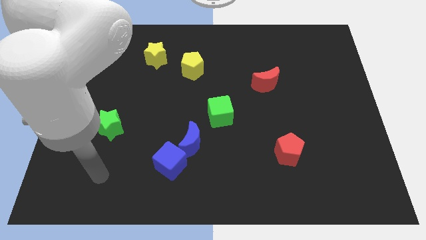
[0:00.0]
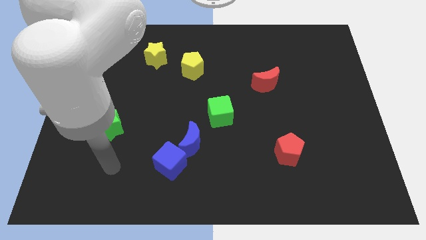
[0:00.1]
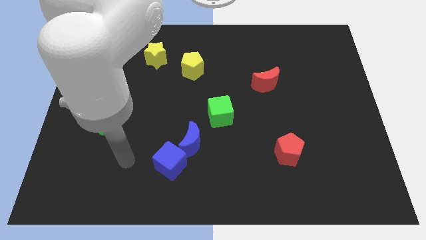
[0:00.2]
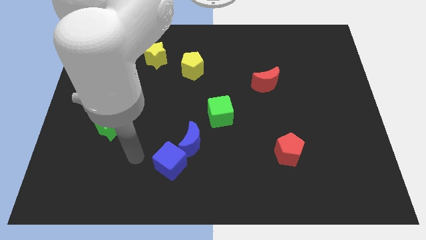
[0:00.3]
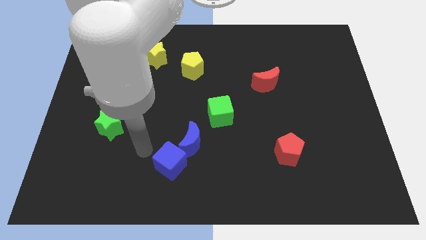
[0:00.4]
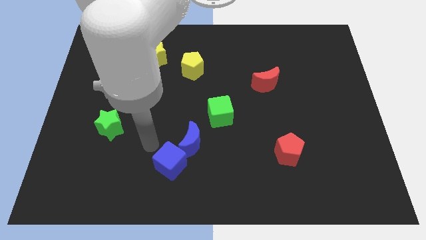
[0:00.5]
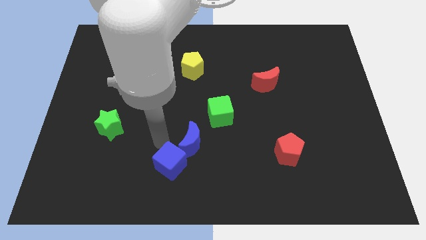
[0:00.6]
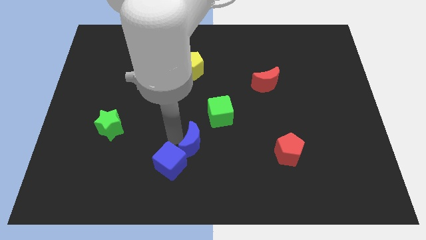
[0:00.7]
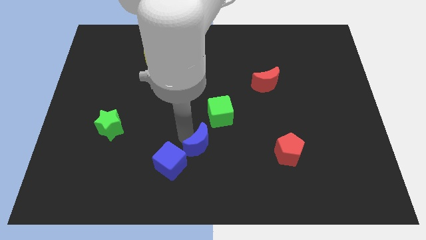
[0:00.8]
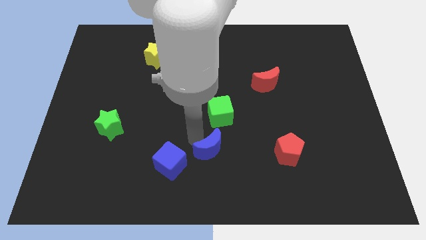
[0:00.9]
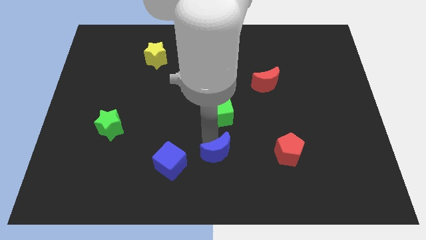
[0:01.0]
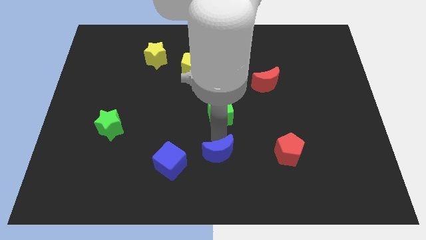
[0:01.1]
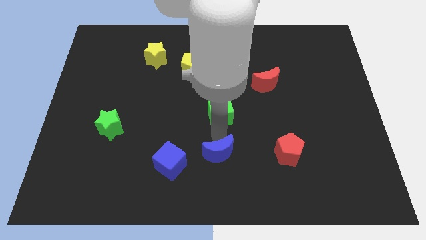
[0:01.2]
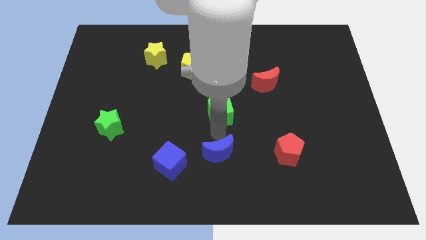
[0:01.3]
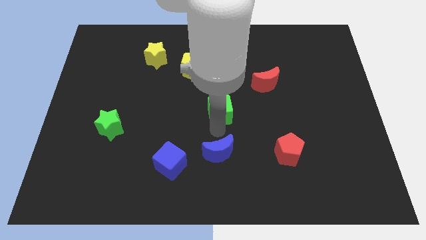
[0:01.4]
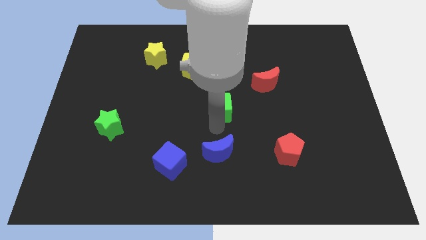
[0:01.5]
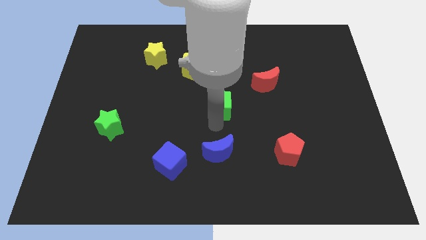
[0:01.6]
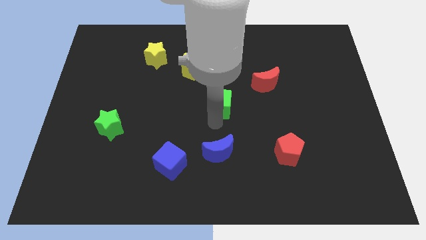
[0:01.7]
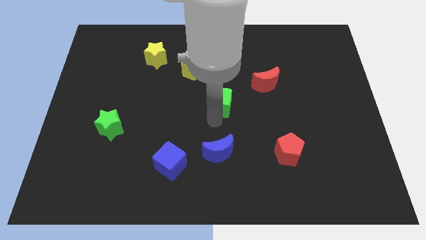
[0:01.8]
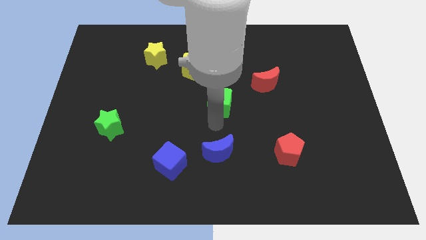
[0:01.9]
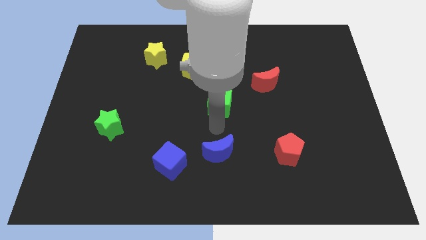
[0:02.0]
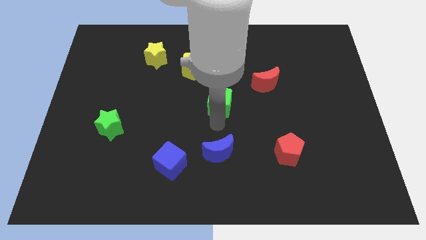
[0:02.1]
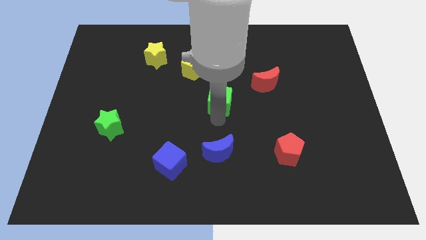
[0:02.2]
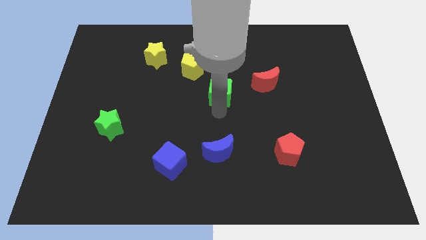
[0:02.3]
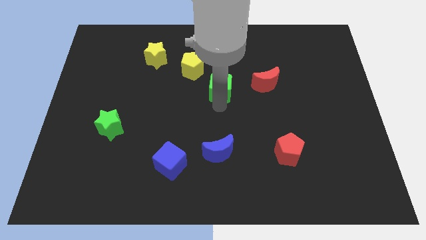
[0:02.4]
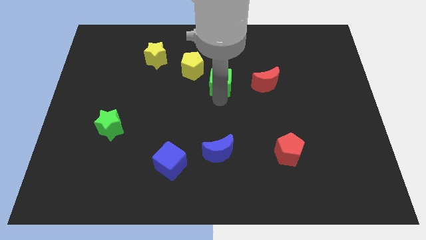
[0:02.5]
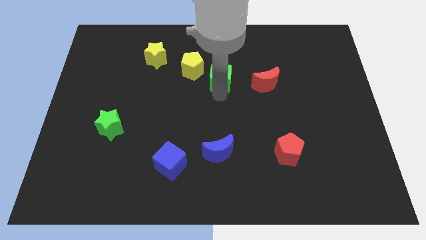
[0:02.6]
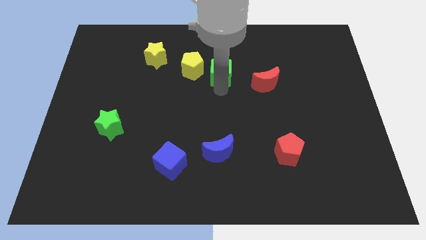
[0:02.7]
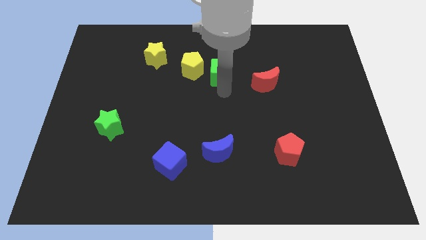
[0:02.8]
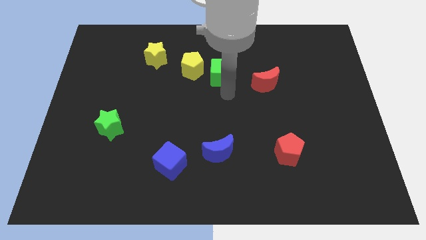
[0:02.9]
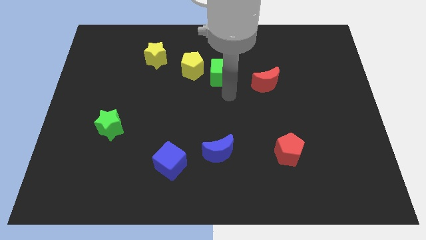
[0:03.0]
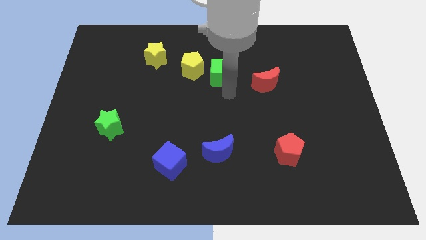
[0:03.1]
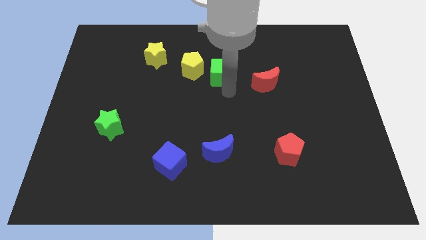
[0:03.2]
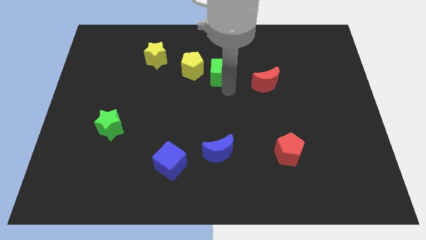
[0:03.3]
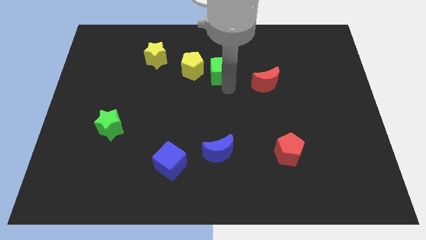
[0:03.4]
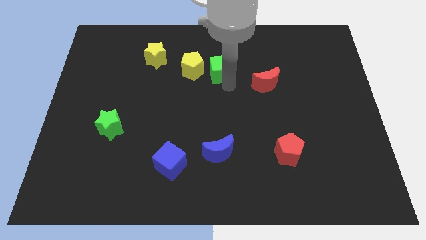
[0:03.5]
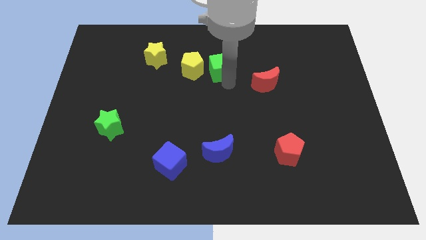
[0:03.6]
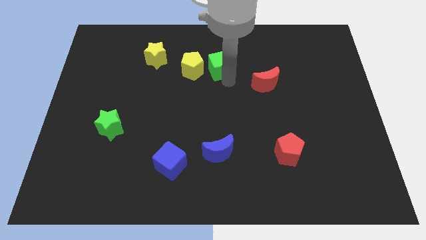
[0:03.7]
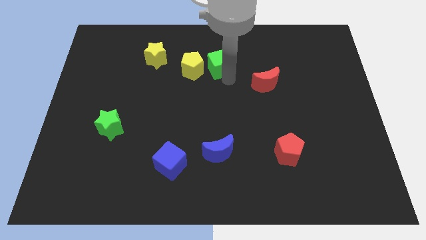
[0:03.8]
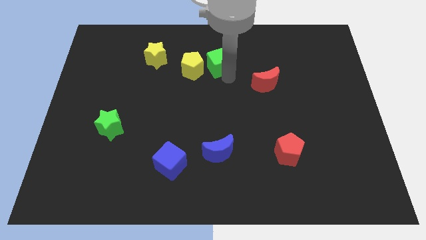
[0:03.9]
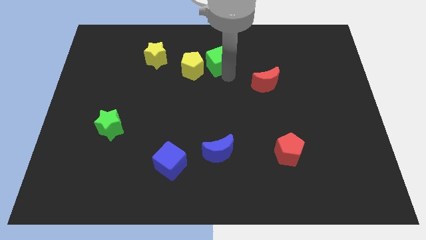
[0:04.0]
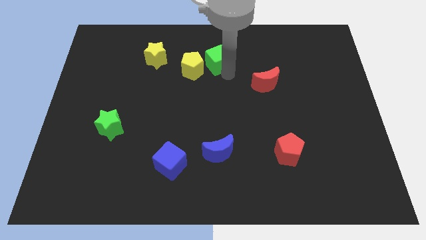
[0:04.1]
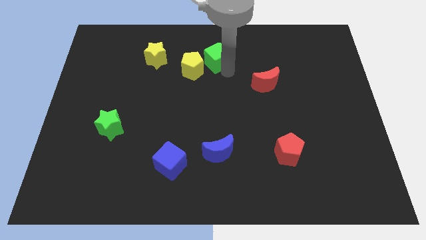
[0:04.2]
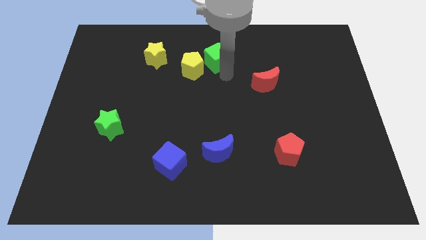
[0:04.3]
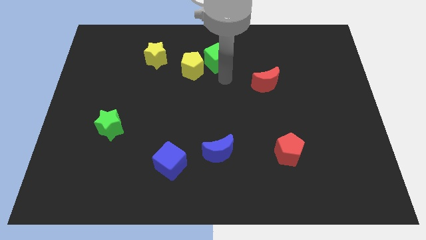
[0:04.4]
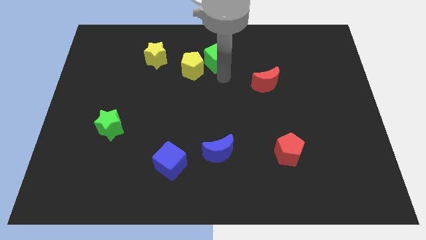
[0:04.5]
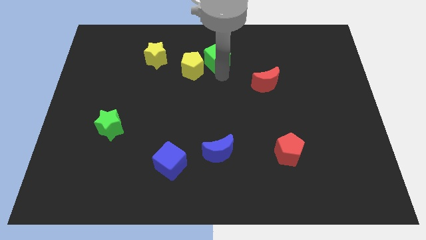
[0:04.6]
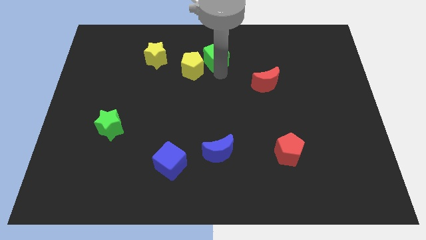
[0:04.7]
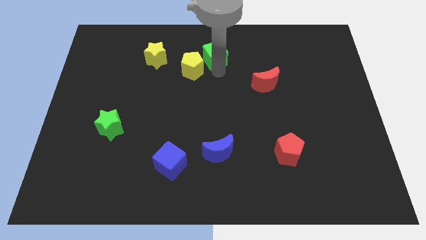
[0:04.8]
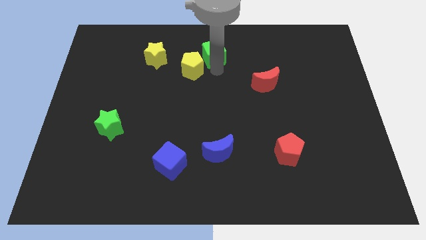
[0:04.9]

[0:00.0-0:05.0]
put the green cube to the top side

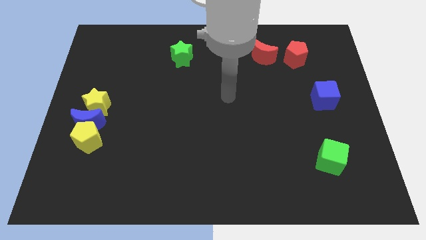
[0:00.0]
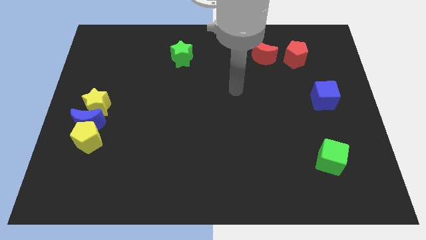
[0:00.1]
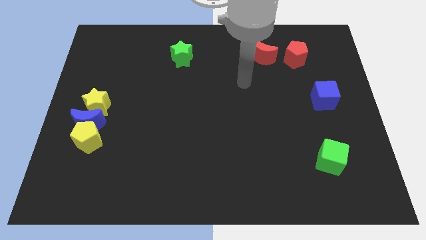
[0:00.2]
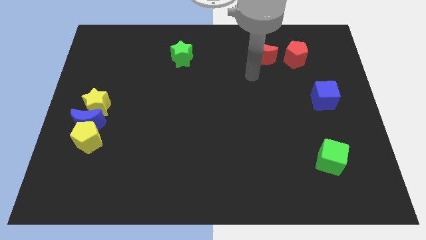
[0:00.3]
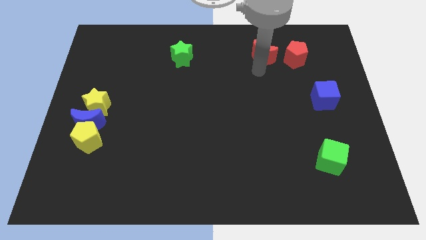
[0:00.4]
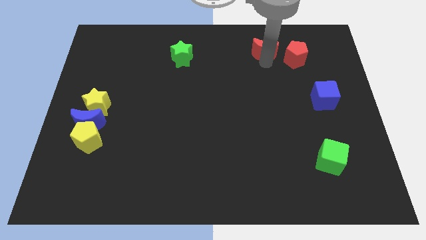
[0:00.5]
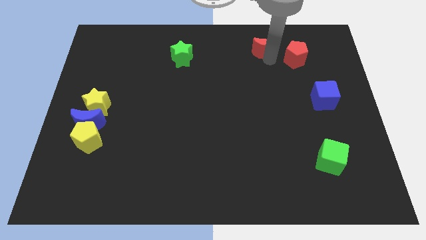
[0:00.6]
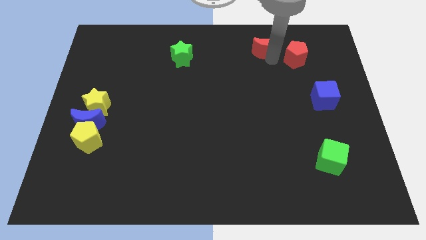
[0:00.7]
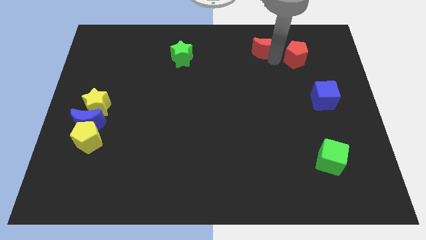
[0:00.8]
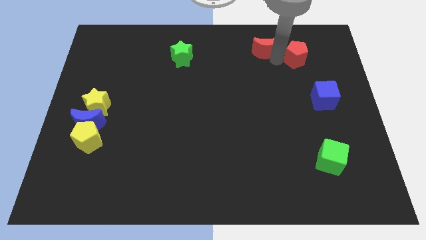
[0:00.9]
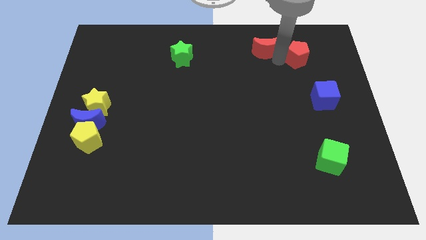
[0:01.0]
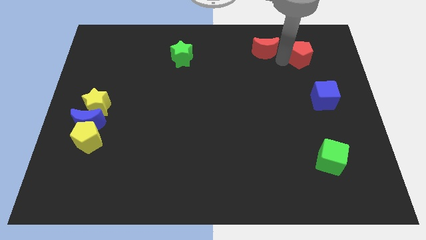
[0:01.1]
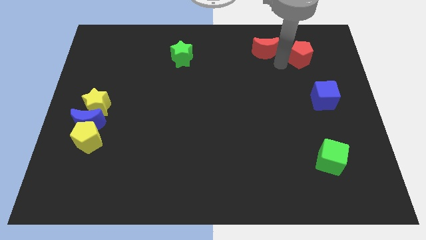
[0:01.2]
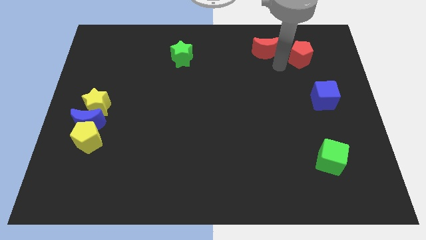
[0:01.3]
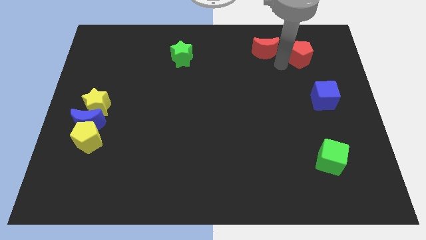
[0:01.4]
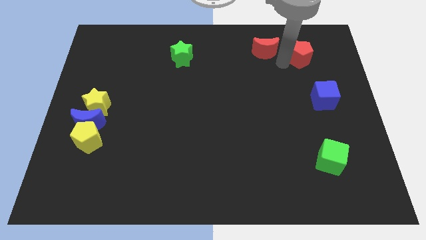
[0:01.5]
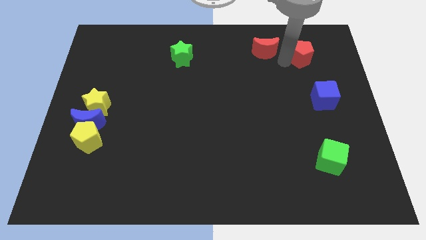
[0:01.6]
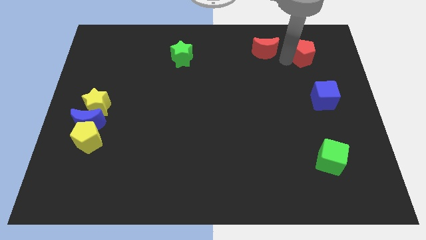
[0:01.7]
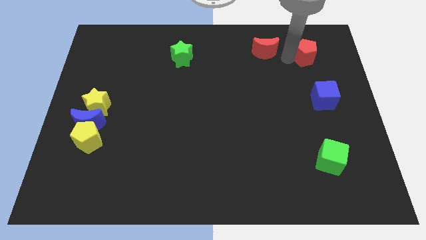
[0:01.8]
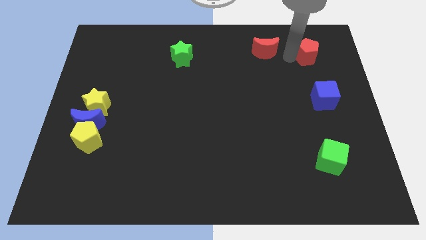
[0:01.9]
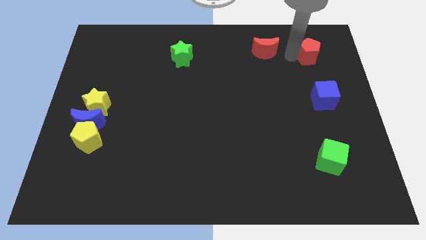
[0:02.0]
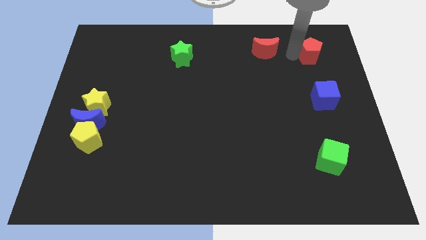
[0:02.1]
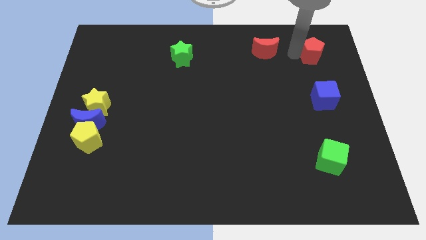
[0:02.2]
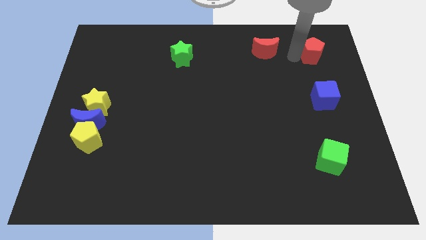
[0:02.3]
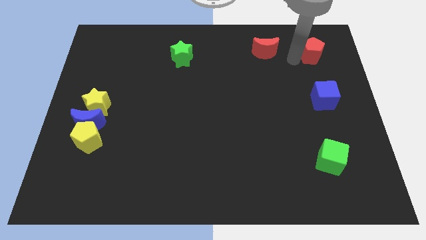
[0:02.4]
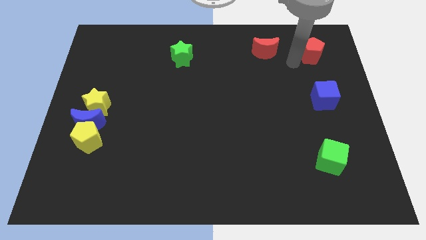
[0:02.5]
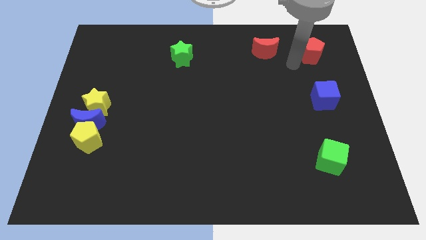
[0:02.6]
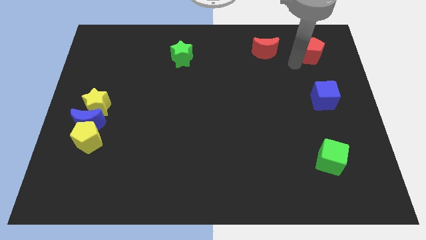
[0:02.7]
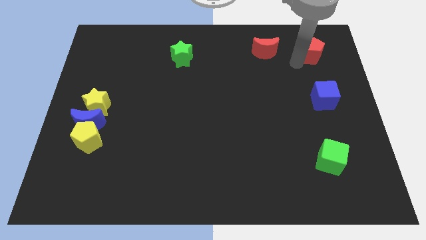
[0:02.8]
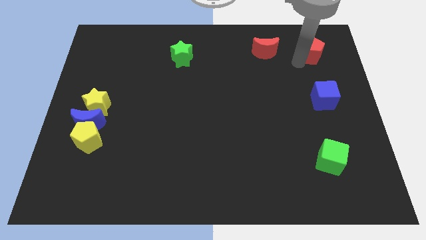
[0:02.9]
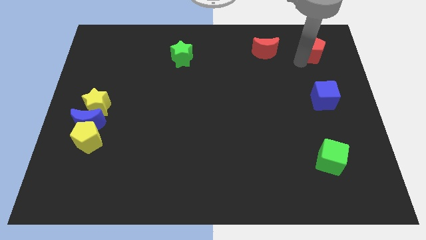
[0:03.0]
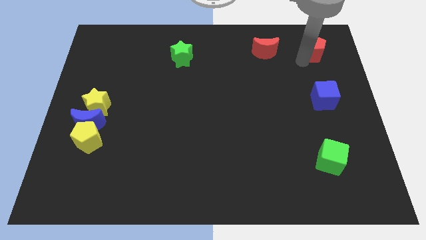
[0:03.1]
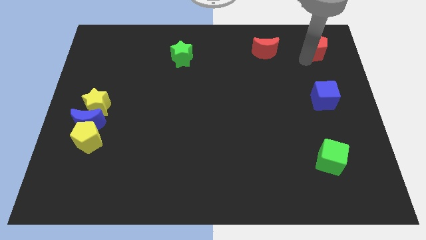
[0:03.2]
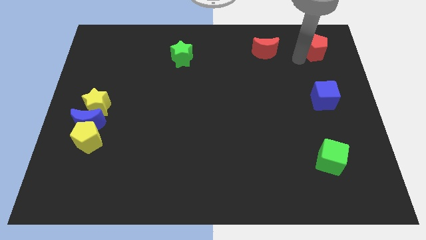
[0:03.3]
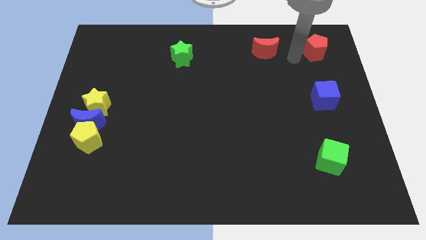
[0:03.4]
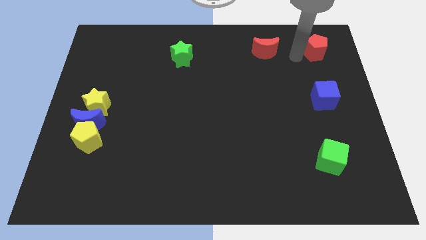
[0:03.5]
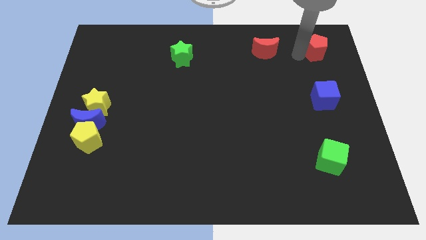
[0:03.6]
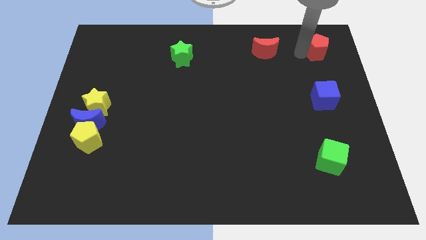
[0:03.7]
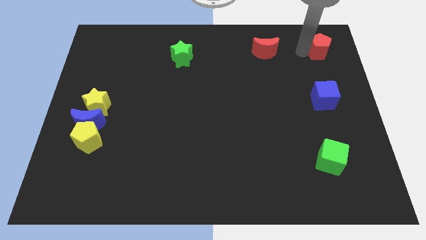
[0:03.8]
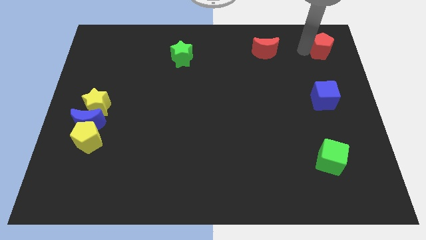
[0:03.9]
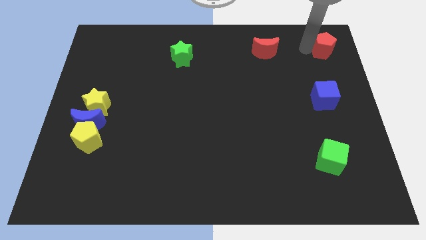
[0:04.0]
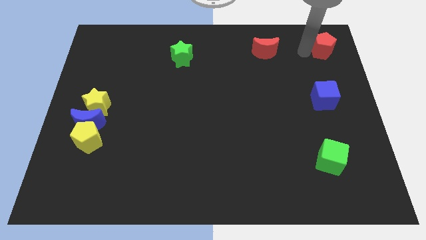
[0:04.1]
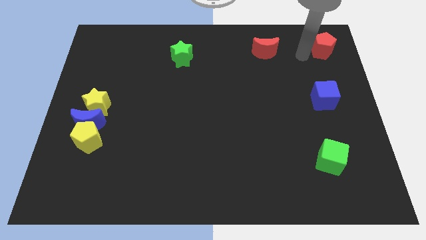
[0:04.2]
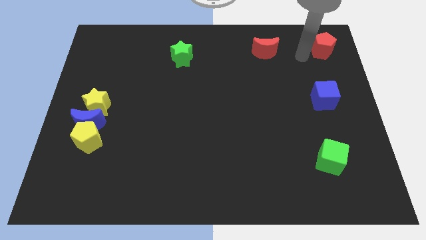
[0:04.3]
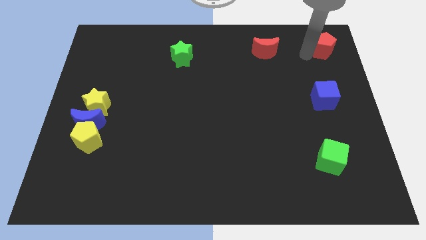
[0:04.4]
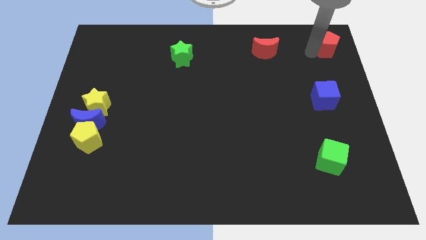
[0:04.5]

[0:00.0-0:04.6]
slide the red pentagon to the upper right corner
